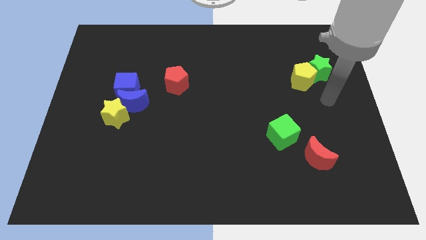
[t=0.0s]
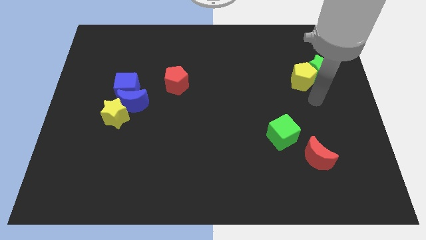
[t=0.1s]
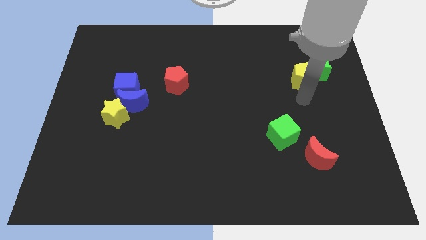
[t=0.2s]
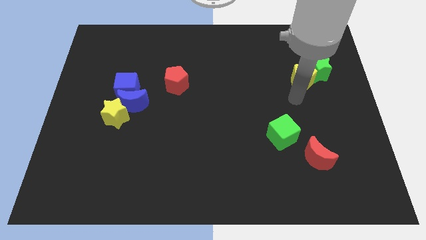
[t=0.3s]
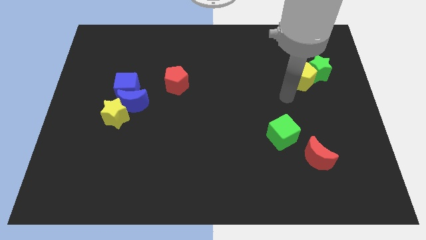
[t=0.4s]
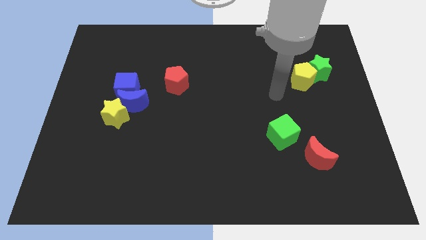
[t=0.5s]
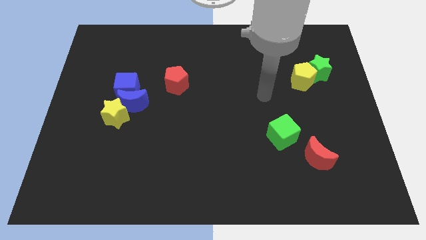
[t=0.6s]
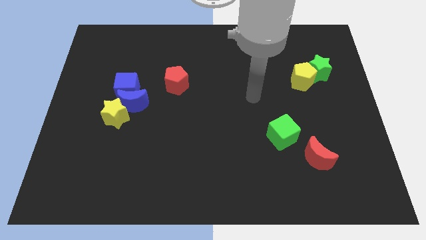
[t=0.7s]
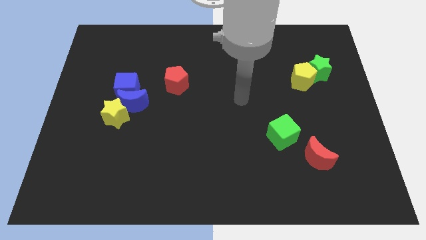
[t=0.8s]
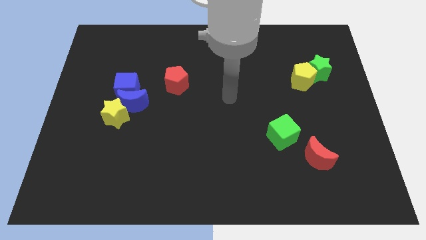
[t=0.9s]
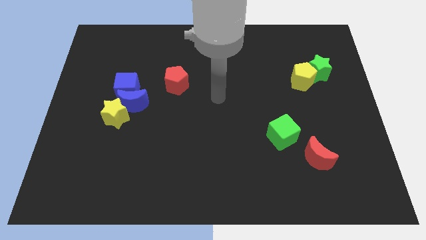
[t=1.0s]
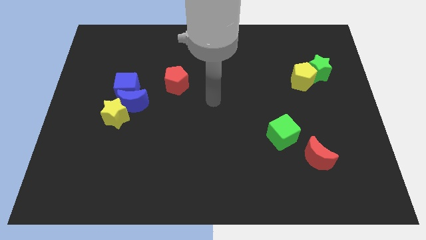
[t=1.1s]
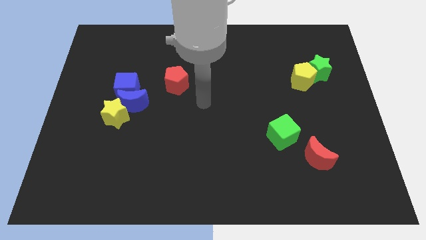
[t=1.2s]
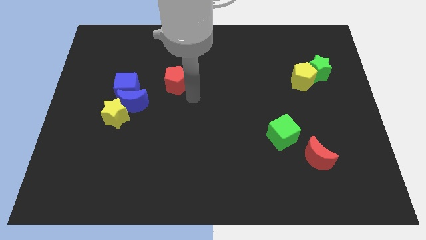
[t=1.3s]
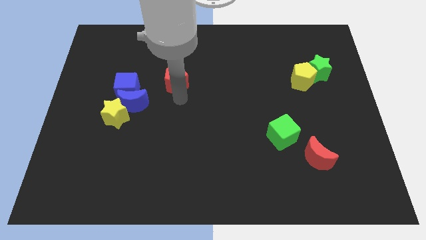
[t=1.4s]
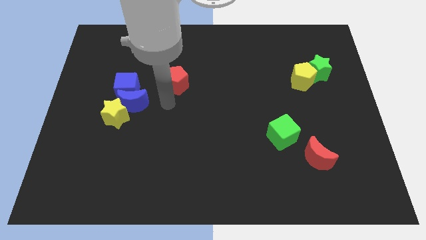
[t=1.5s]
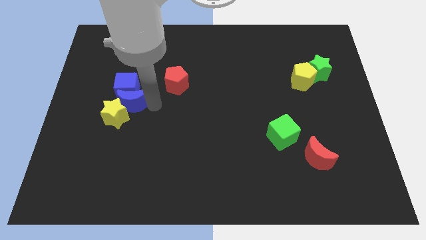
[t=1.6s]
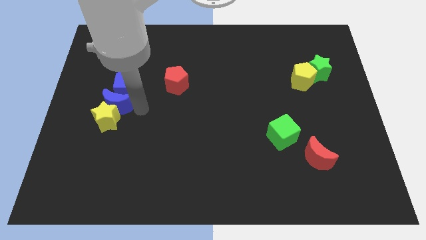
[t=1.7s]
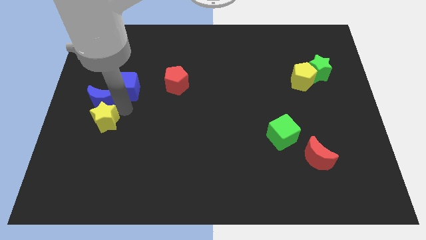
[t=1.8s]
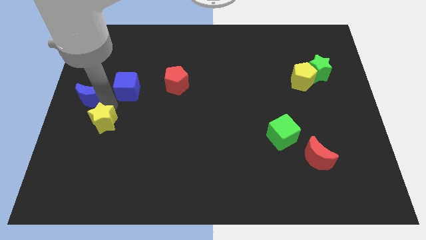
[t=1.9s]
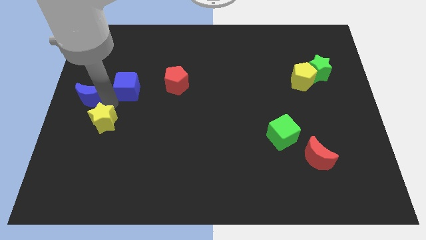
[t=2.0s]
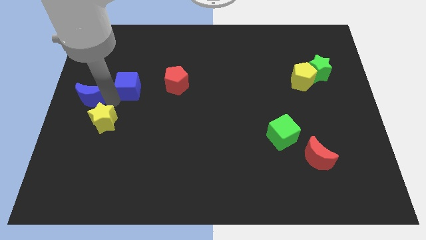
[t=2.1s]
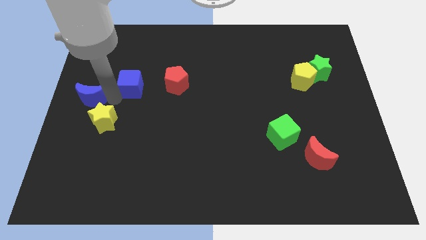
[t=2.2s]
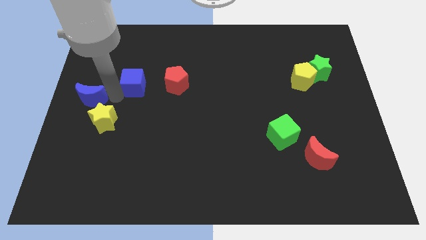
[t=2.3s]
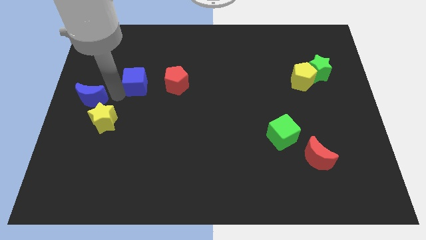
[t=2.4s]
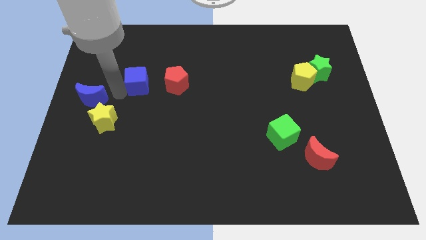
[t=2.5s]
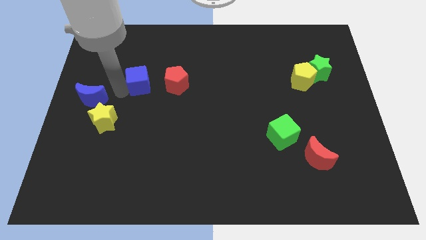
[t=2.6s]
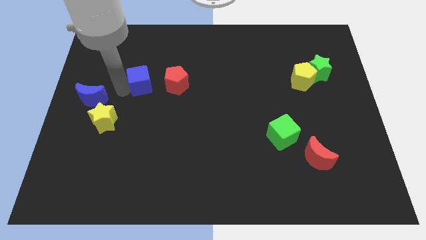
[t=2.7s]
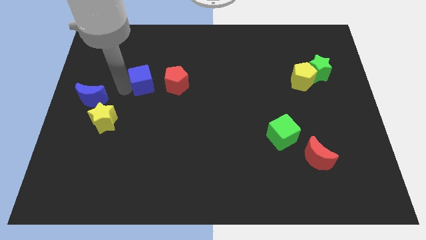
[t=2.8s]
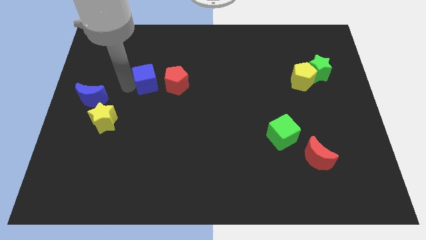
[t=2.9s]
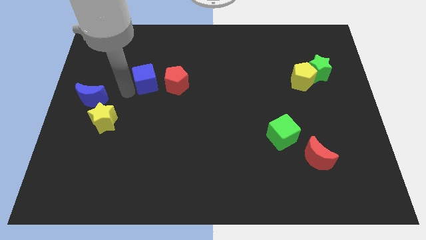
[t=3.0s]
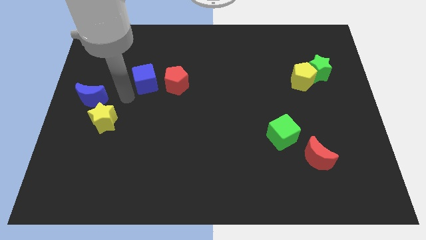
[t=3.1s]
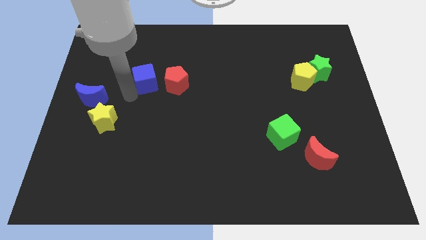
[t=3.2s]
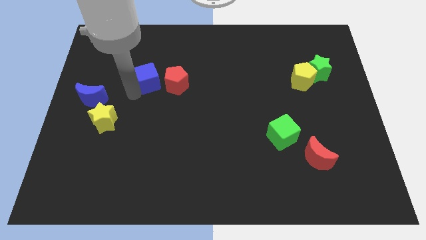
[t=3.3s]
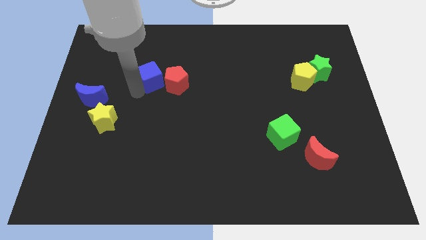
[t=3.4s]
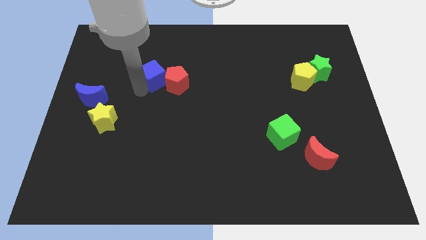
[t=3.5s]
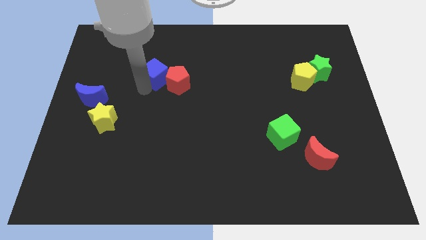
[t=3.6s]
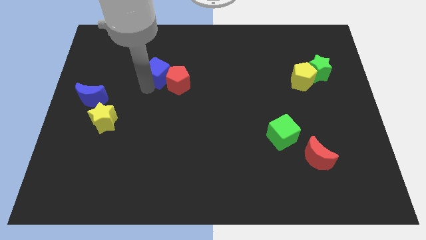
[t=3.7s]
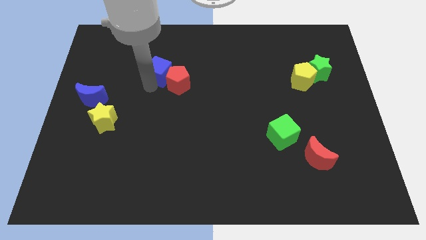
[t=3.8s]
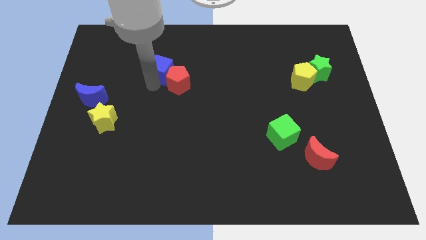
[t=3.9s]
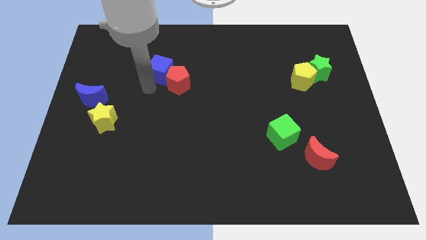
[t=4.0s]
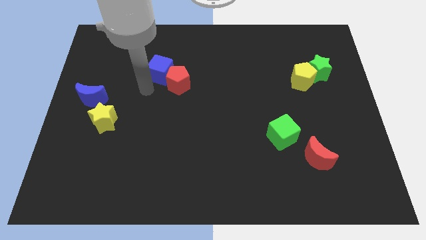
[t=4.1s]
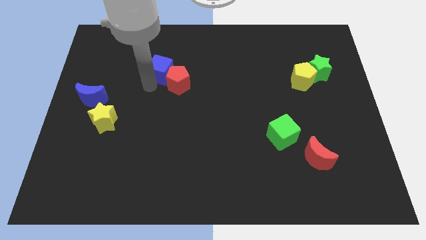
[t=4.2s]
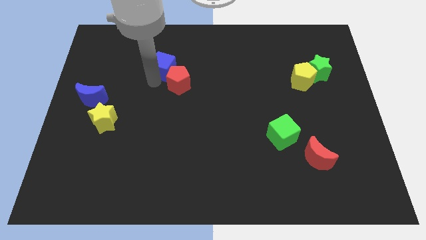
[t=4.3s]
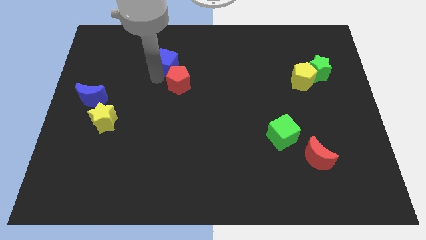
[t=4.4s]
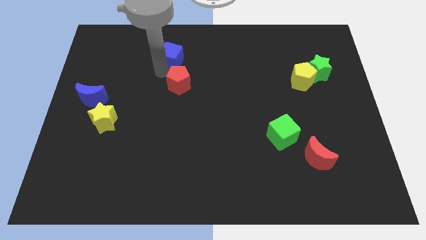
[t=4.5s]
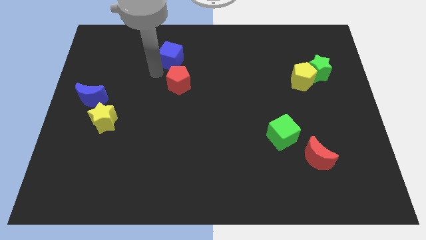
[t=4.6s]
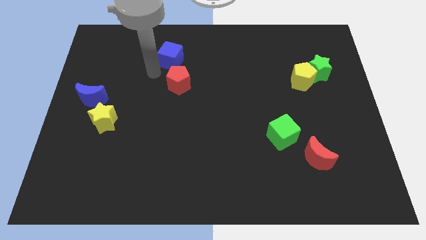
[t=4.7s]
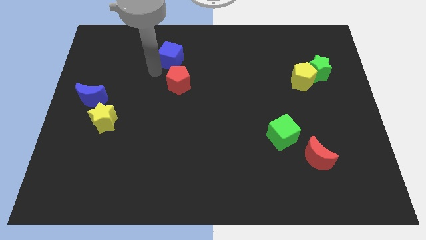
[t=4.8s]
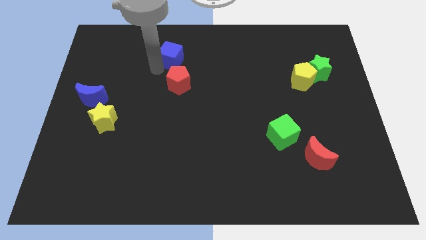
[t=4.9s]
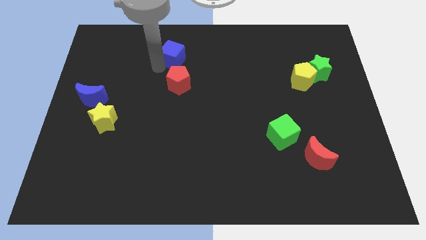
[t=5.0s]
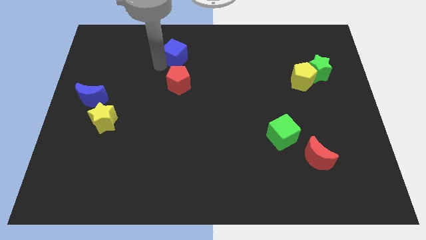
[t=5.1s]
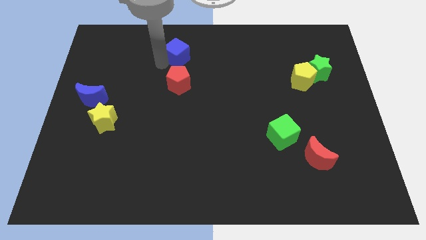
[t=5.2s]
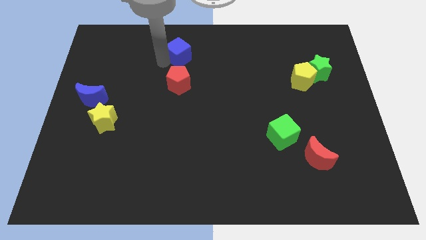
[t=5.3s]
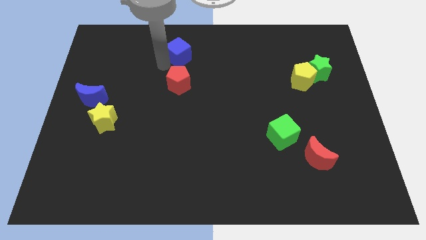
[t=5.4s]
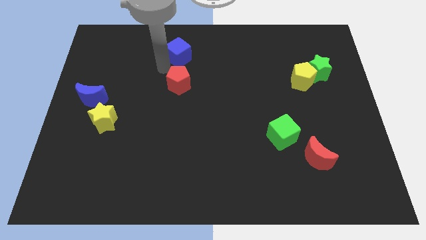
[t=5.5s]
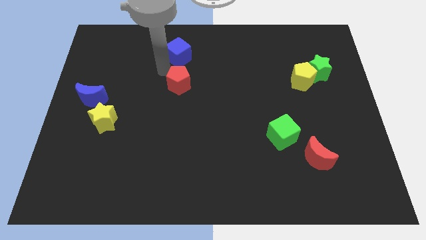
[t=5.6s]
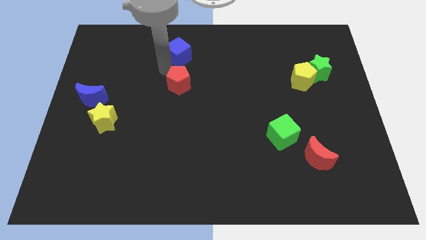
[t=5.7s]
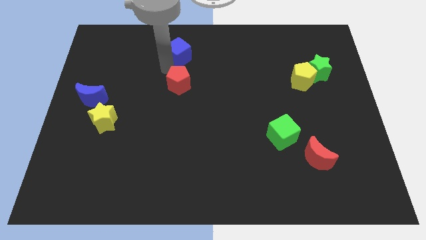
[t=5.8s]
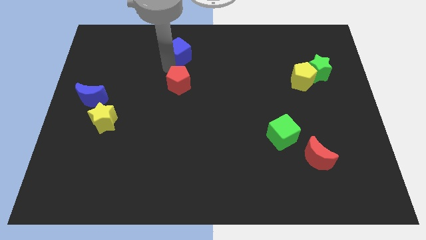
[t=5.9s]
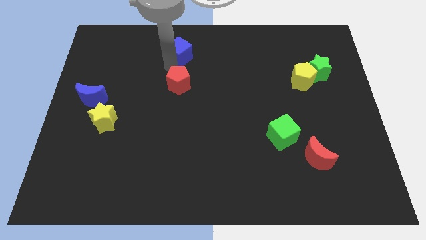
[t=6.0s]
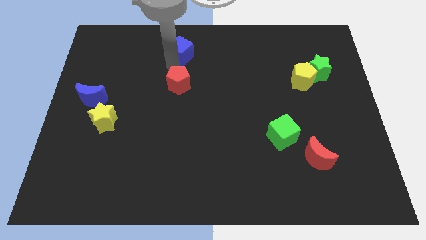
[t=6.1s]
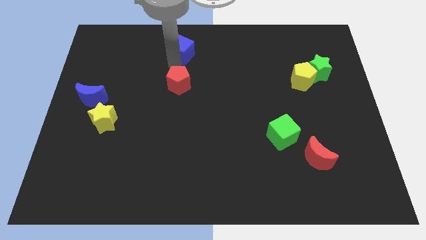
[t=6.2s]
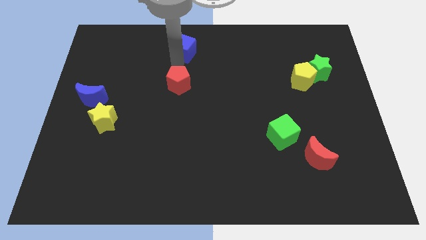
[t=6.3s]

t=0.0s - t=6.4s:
move the blue cube to the top

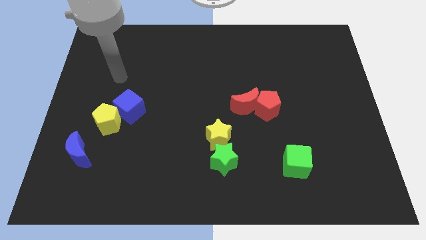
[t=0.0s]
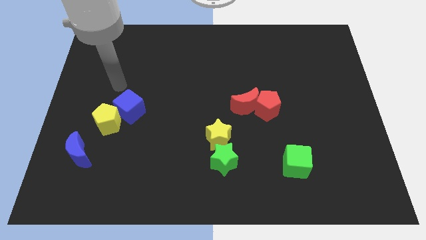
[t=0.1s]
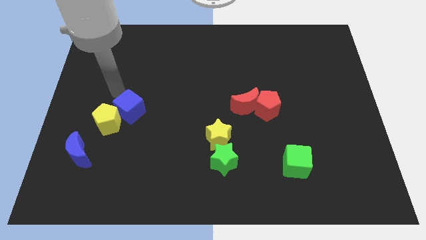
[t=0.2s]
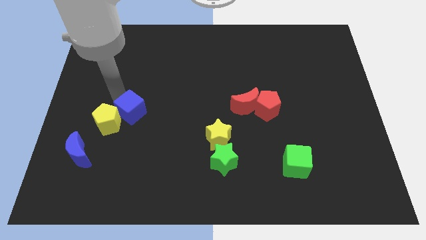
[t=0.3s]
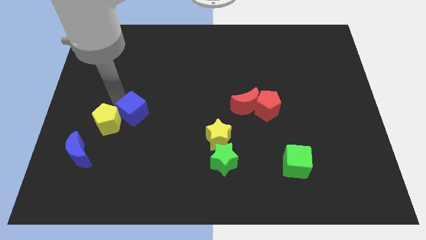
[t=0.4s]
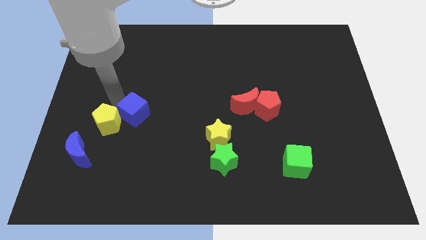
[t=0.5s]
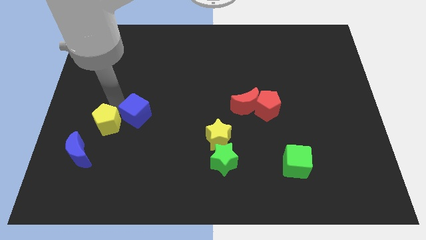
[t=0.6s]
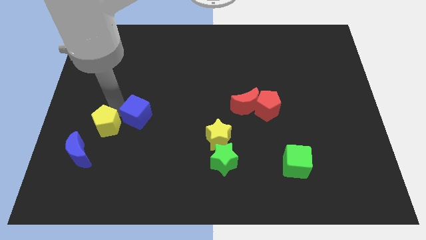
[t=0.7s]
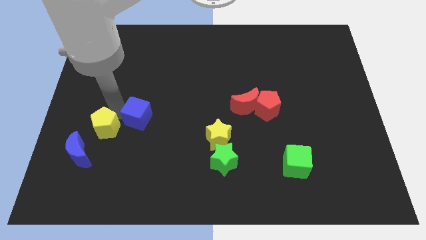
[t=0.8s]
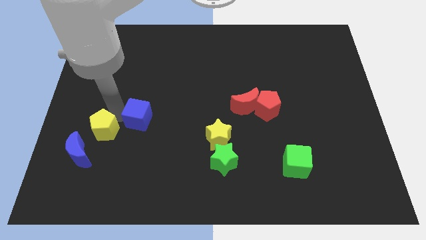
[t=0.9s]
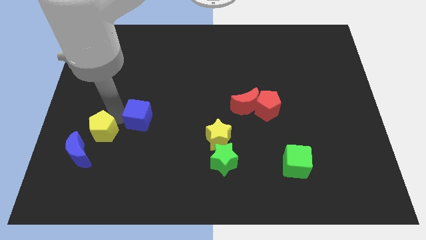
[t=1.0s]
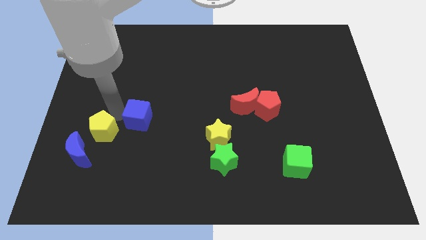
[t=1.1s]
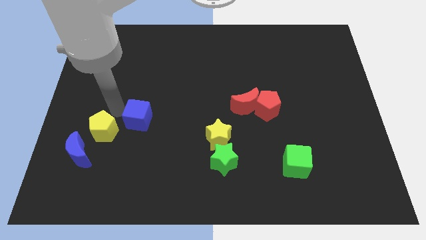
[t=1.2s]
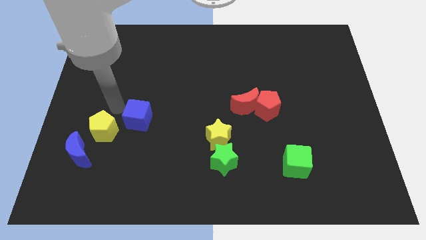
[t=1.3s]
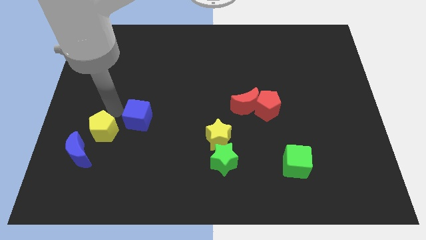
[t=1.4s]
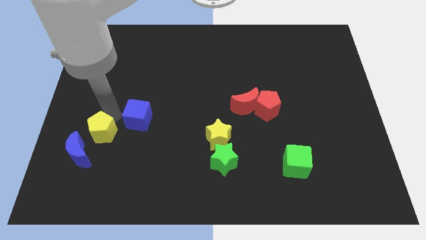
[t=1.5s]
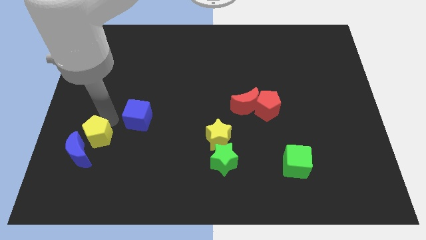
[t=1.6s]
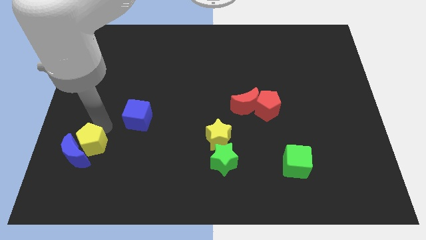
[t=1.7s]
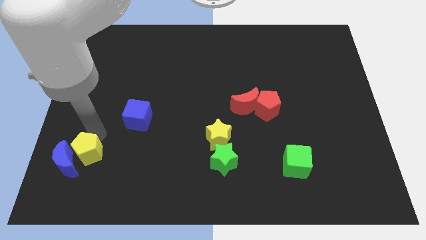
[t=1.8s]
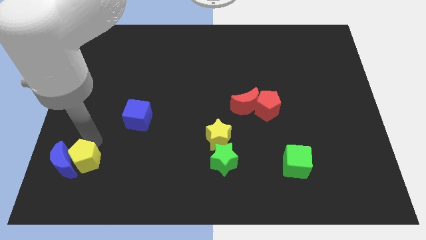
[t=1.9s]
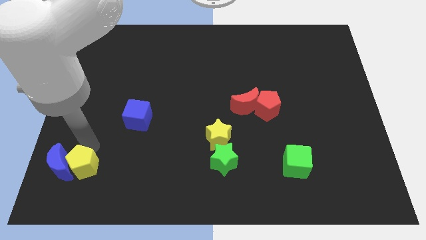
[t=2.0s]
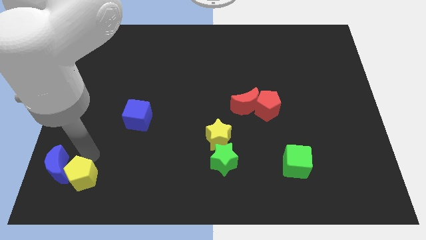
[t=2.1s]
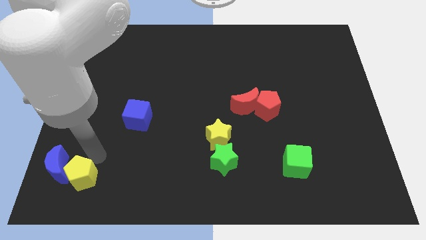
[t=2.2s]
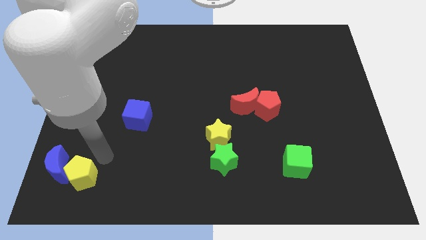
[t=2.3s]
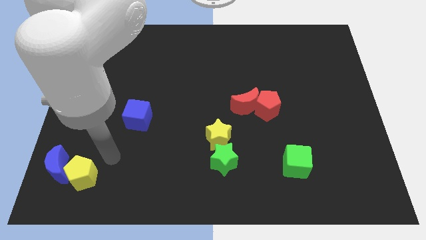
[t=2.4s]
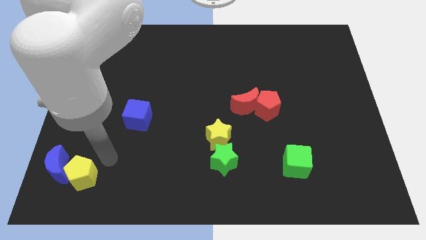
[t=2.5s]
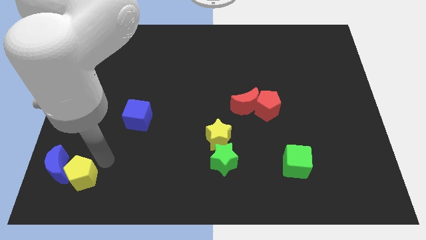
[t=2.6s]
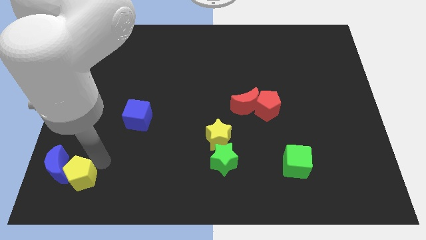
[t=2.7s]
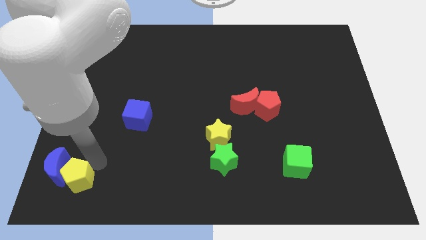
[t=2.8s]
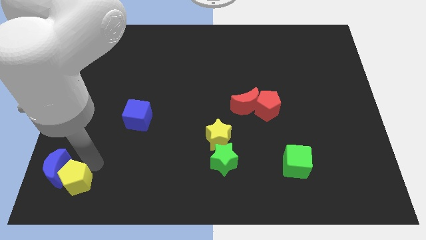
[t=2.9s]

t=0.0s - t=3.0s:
move the yellow pentagon to the lower left corner
